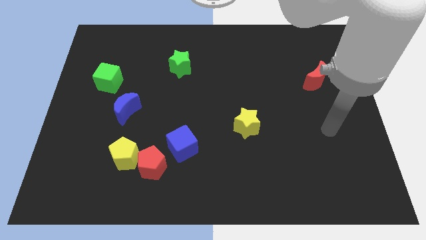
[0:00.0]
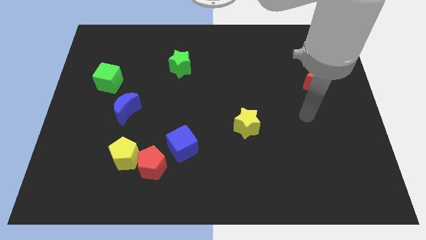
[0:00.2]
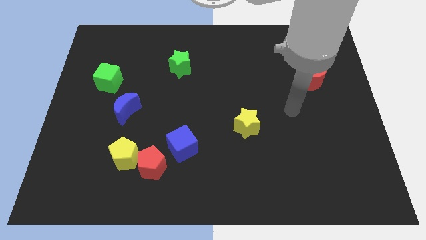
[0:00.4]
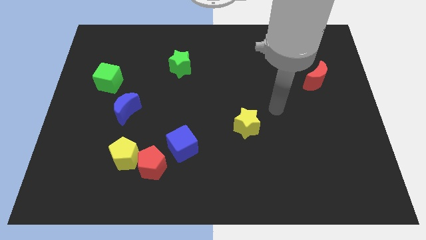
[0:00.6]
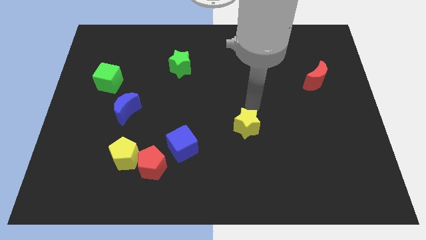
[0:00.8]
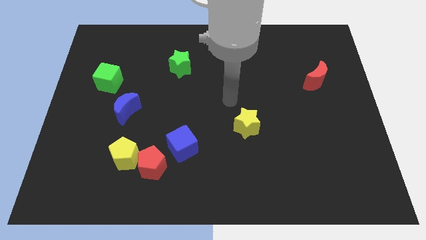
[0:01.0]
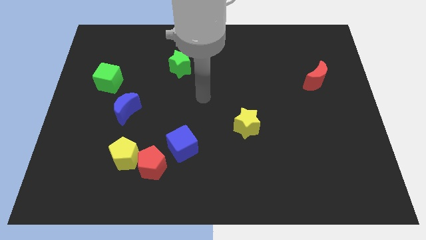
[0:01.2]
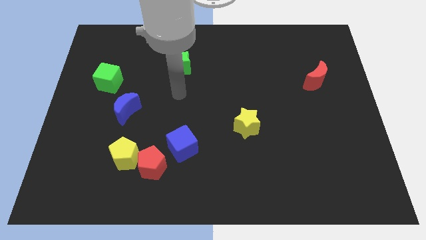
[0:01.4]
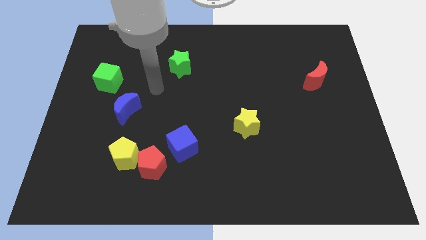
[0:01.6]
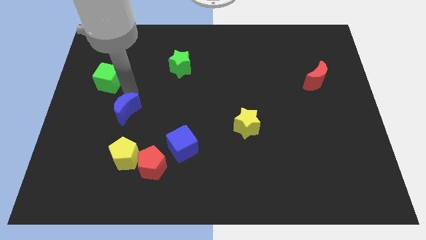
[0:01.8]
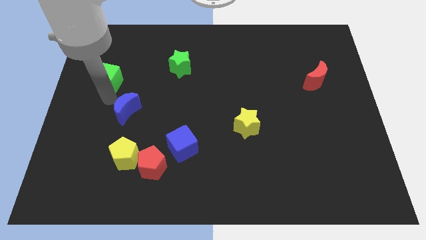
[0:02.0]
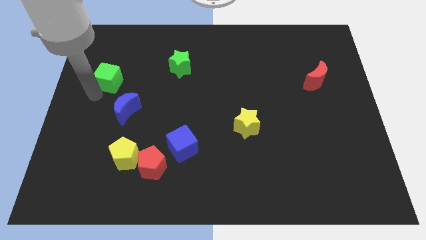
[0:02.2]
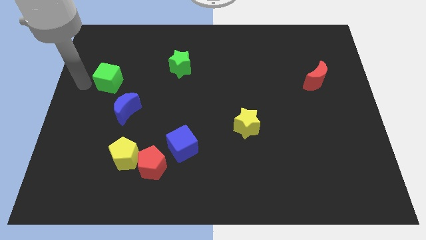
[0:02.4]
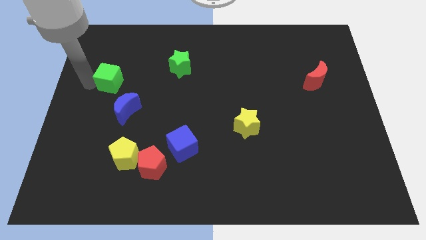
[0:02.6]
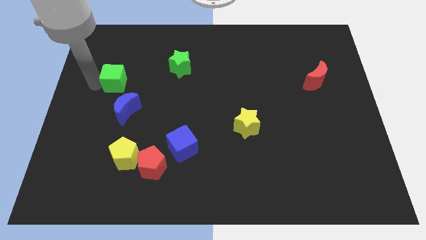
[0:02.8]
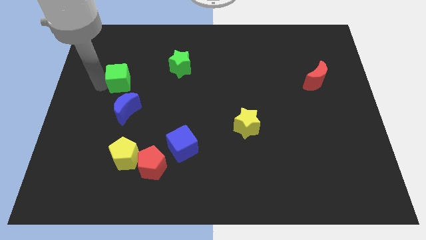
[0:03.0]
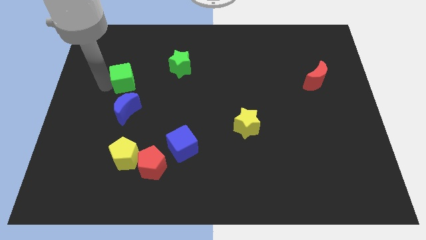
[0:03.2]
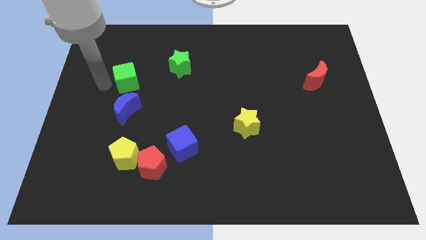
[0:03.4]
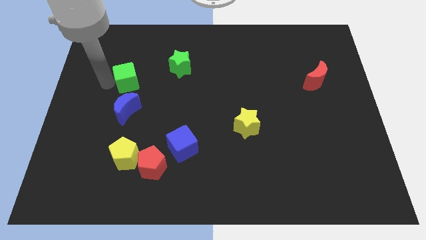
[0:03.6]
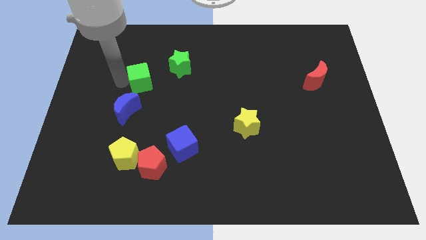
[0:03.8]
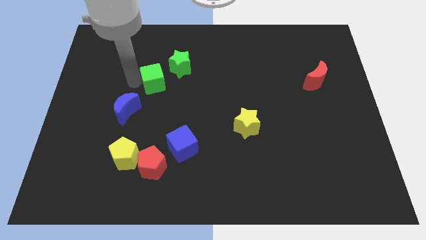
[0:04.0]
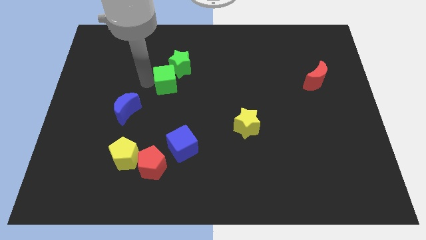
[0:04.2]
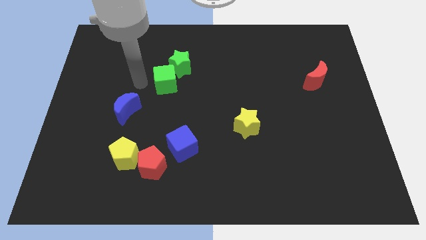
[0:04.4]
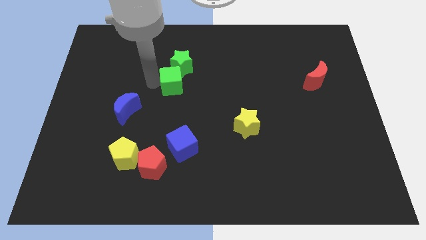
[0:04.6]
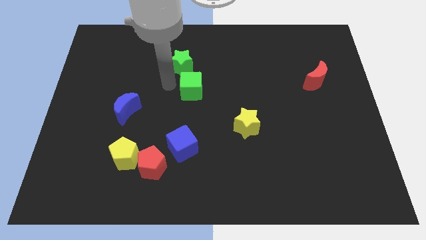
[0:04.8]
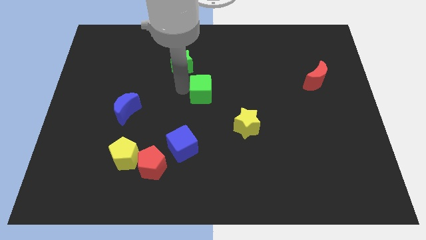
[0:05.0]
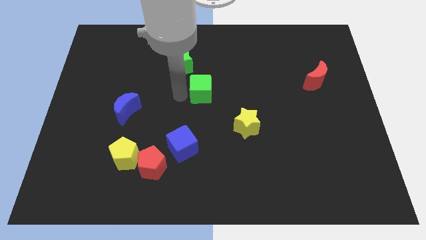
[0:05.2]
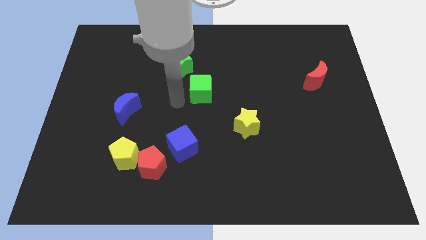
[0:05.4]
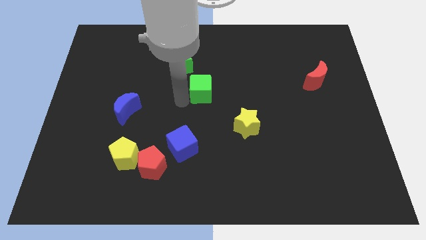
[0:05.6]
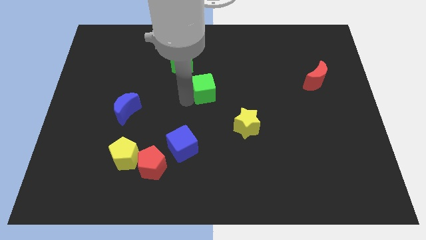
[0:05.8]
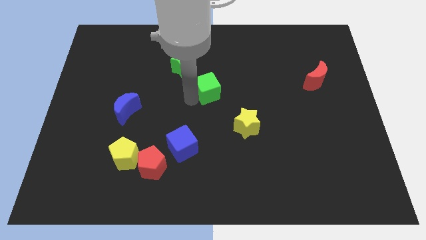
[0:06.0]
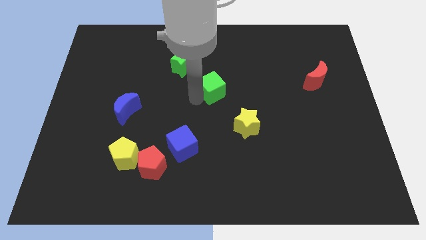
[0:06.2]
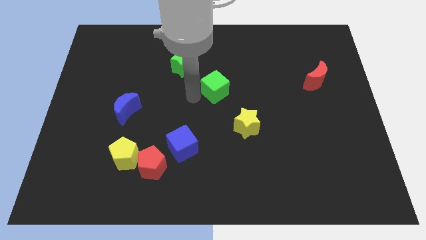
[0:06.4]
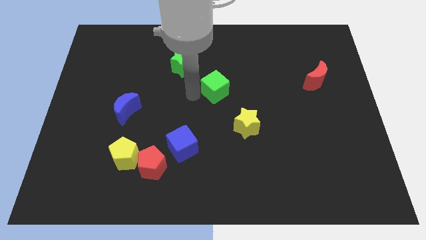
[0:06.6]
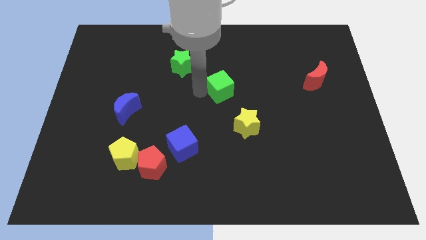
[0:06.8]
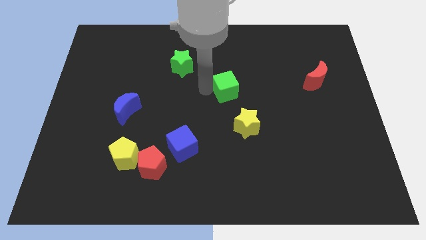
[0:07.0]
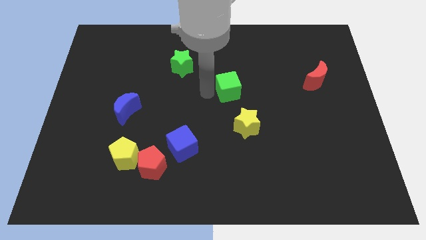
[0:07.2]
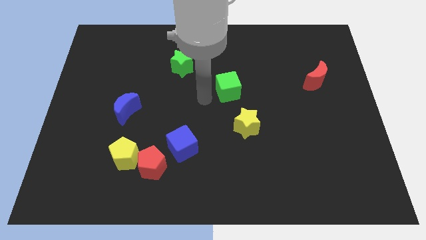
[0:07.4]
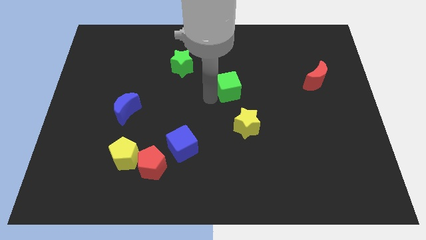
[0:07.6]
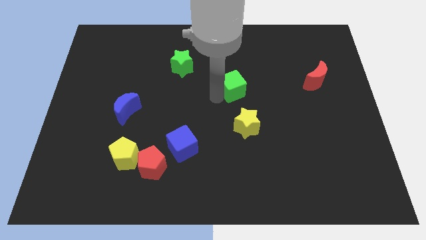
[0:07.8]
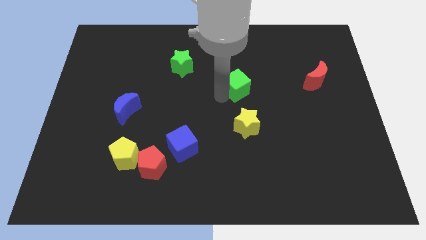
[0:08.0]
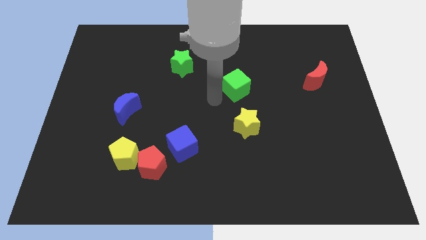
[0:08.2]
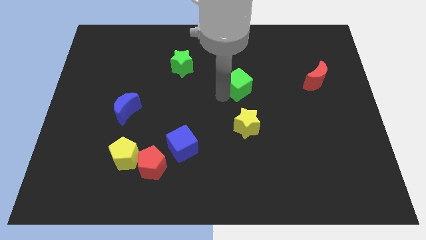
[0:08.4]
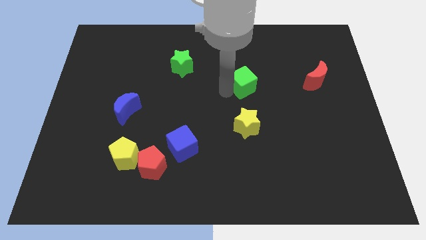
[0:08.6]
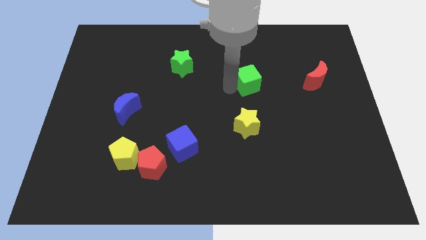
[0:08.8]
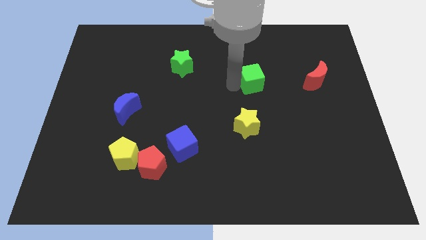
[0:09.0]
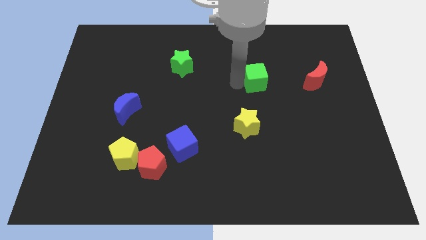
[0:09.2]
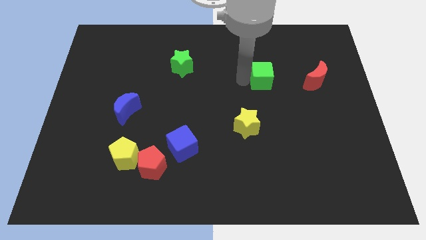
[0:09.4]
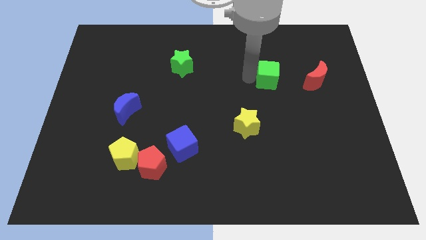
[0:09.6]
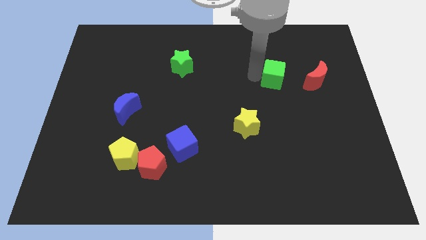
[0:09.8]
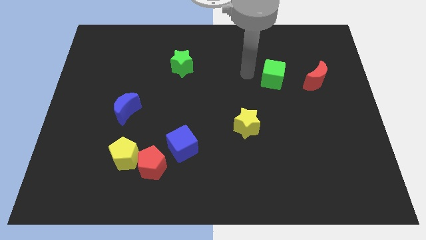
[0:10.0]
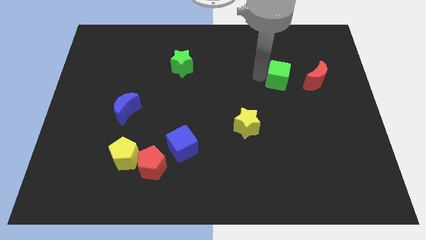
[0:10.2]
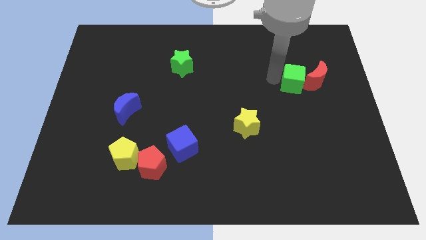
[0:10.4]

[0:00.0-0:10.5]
put the green cube to the red moon

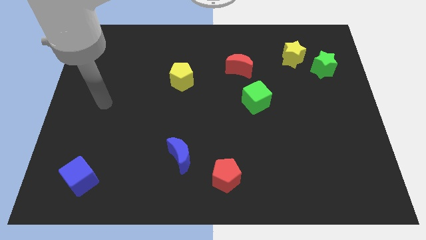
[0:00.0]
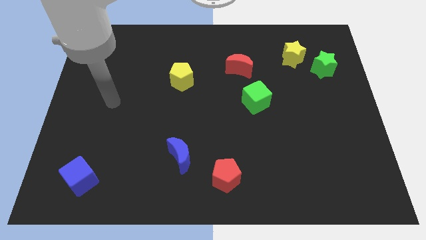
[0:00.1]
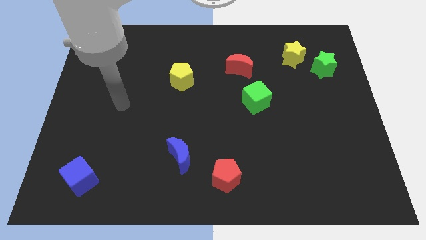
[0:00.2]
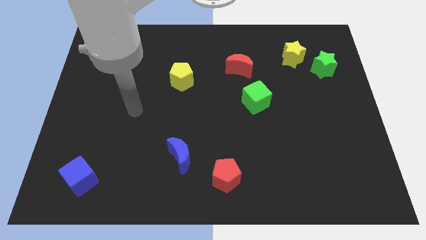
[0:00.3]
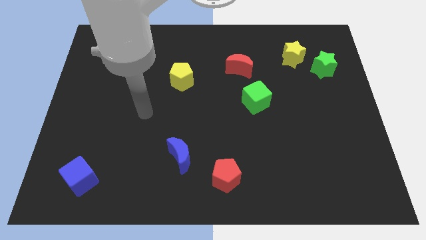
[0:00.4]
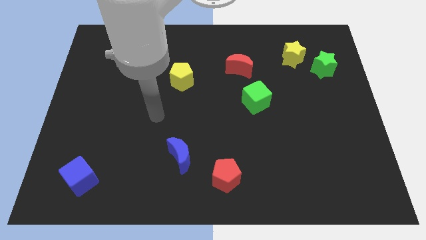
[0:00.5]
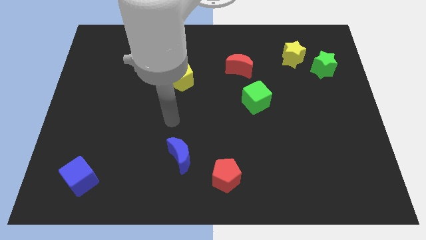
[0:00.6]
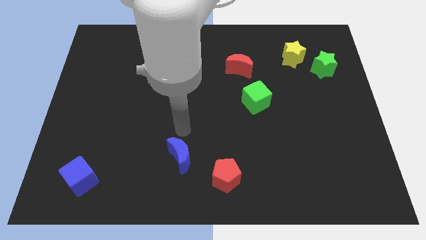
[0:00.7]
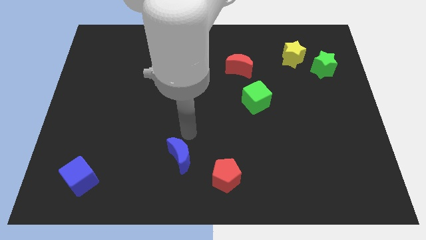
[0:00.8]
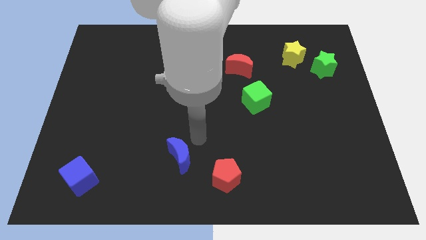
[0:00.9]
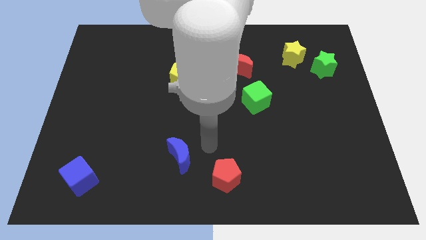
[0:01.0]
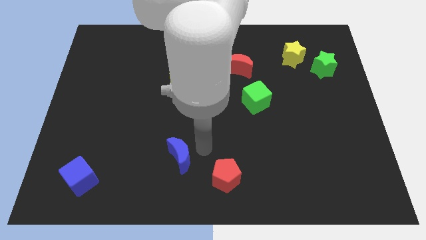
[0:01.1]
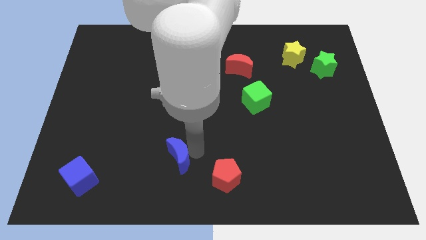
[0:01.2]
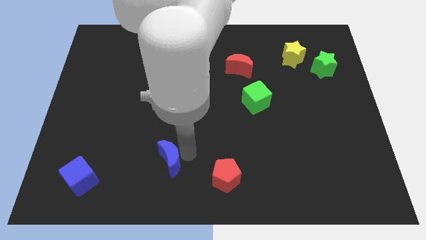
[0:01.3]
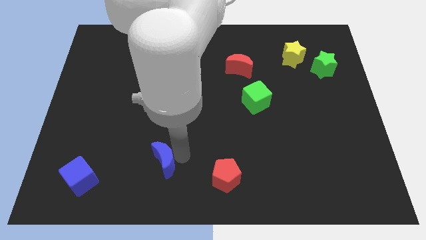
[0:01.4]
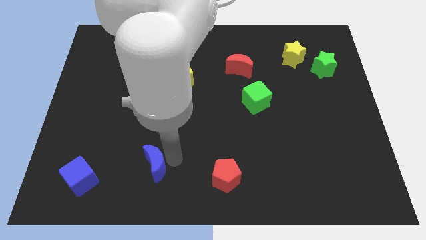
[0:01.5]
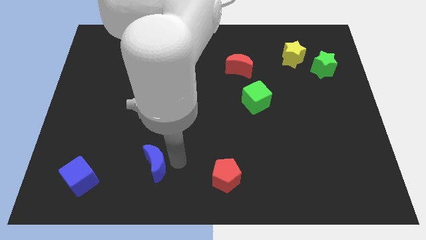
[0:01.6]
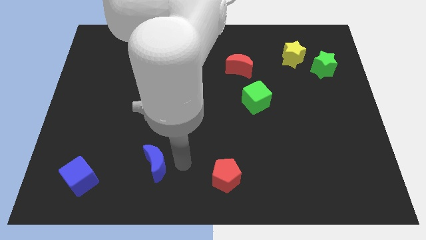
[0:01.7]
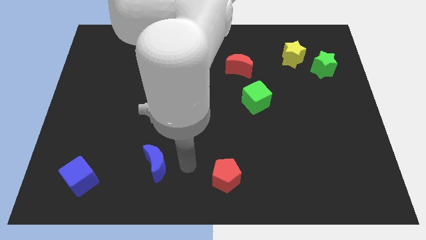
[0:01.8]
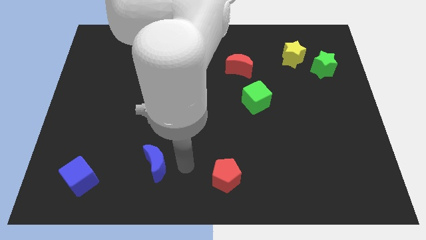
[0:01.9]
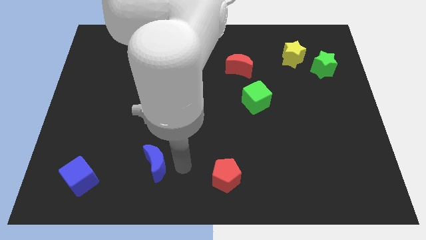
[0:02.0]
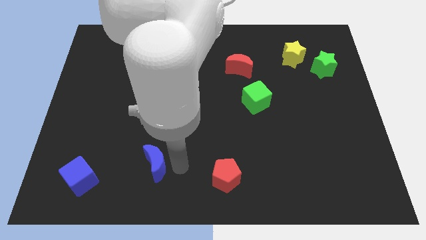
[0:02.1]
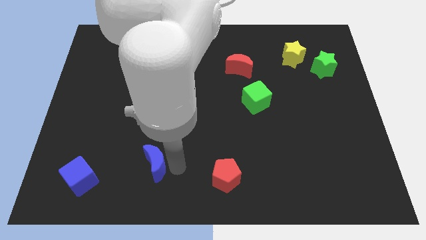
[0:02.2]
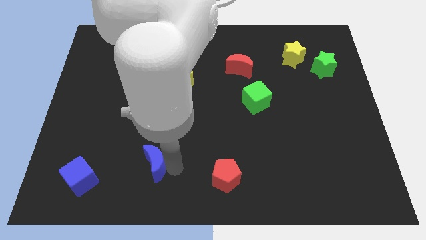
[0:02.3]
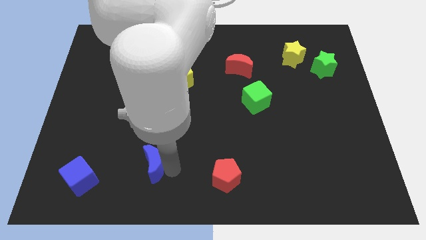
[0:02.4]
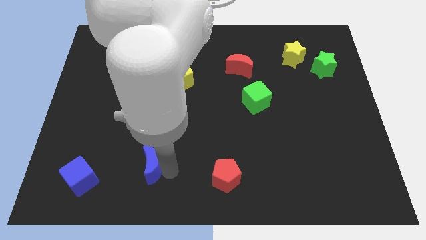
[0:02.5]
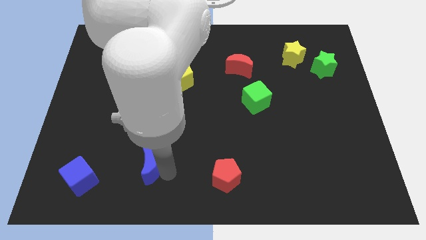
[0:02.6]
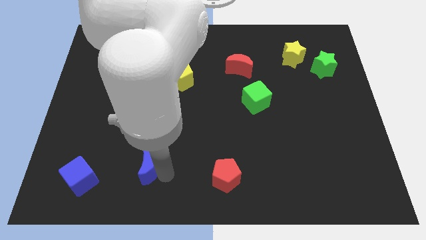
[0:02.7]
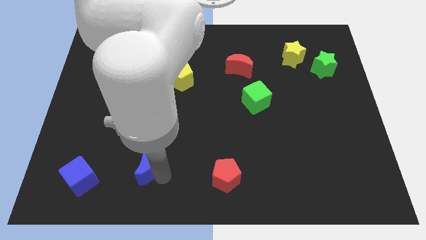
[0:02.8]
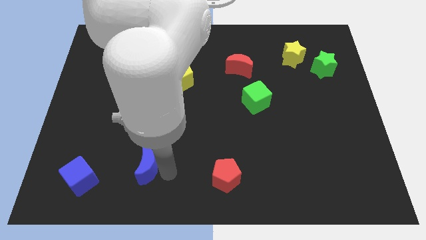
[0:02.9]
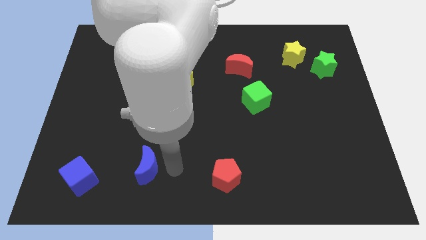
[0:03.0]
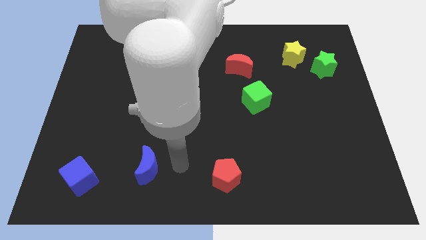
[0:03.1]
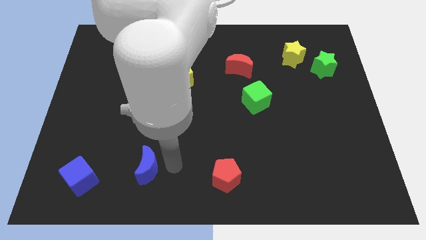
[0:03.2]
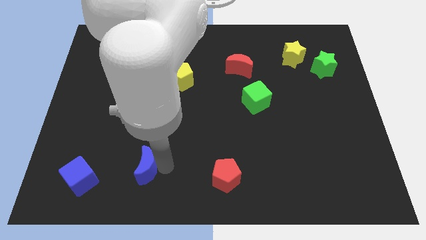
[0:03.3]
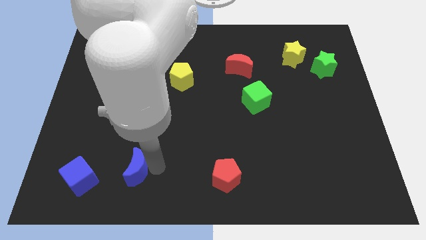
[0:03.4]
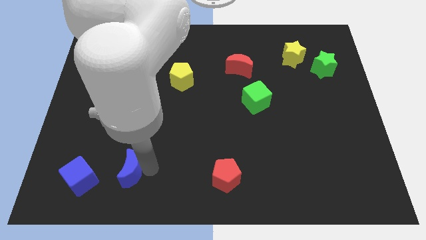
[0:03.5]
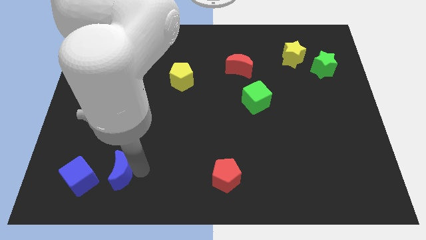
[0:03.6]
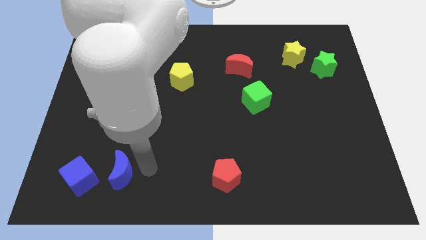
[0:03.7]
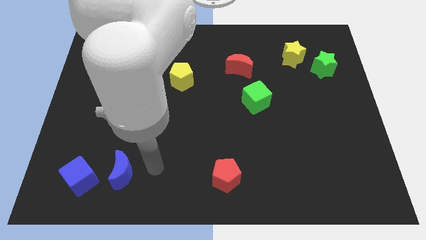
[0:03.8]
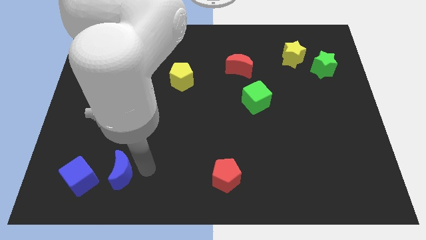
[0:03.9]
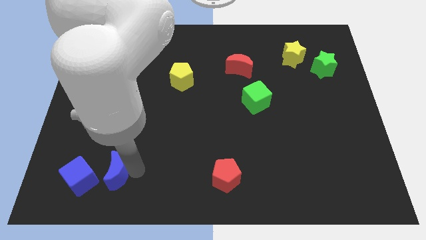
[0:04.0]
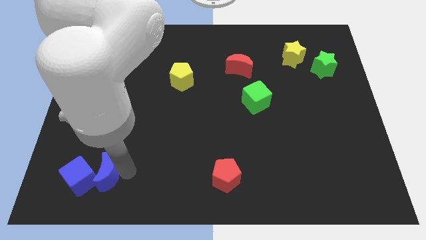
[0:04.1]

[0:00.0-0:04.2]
put the blue moon to the blue cube
